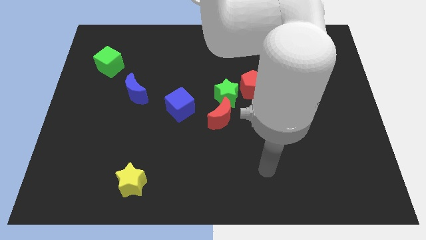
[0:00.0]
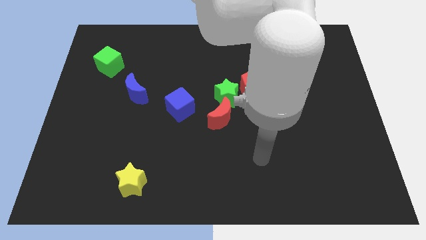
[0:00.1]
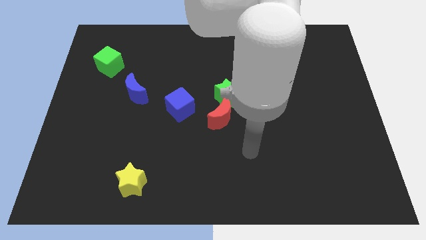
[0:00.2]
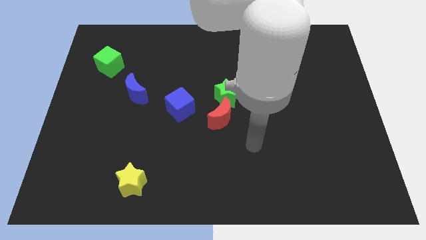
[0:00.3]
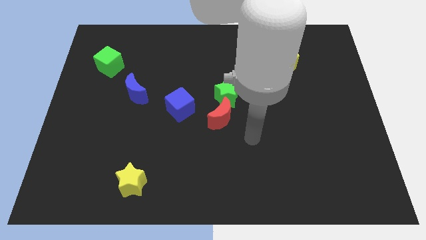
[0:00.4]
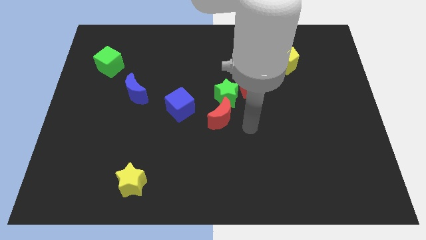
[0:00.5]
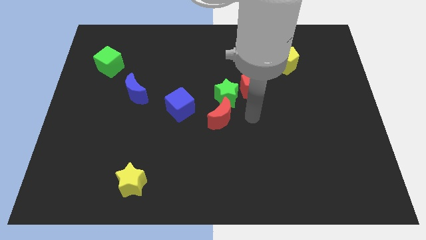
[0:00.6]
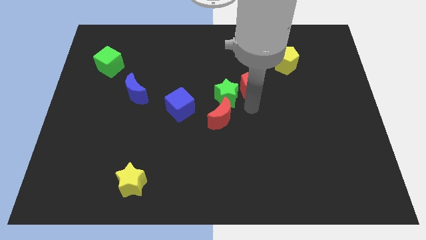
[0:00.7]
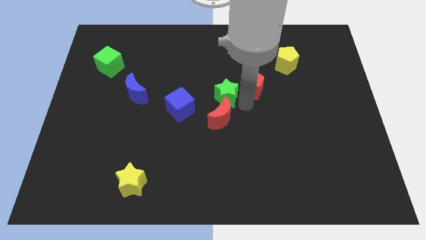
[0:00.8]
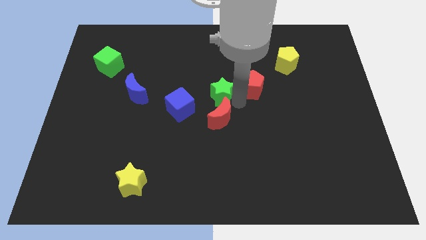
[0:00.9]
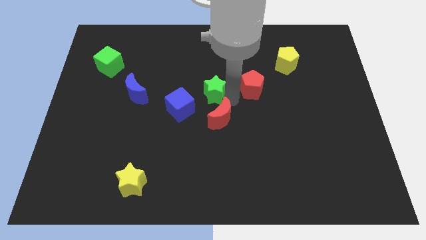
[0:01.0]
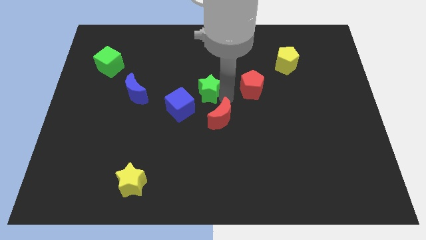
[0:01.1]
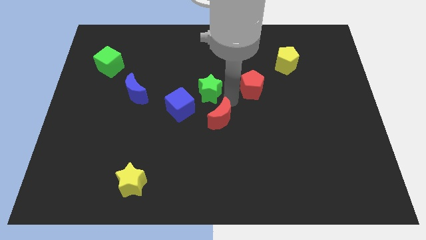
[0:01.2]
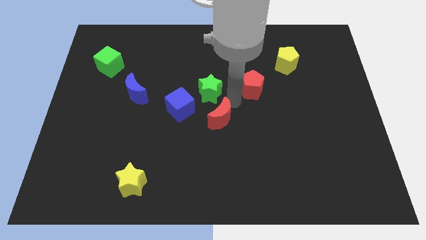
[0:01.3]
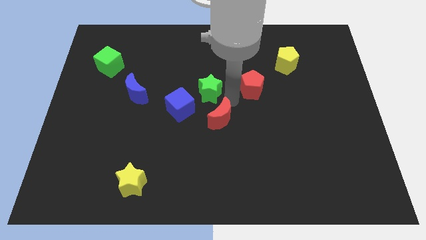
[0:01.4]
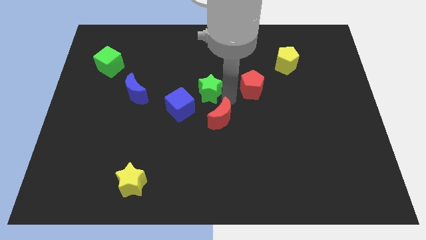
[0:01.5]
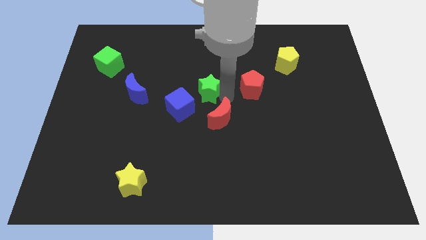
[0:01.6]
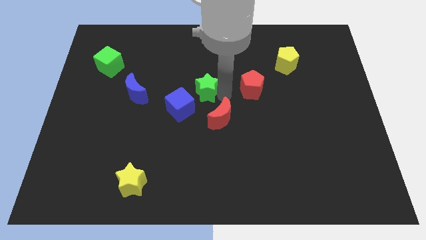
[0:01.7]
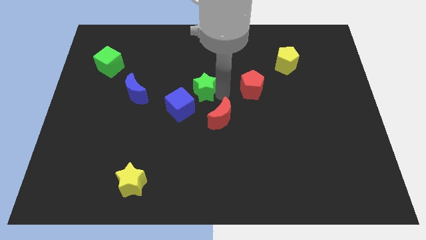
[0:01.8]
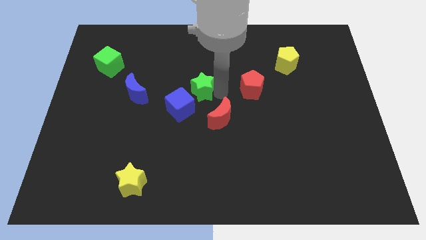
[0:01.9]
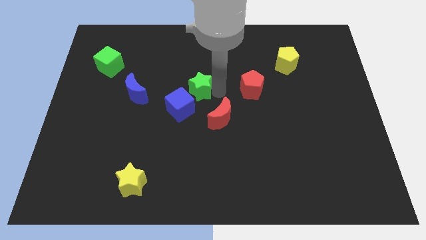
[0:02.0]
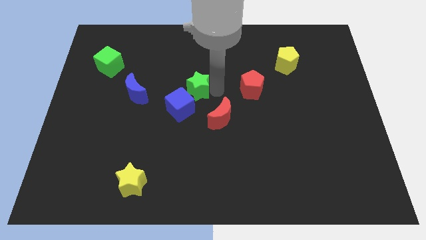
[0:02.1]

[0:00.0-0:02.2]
move the green star away from the red moon and red pentagon

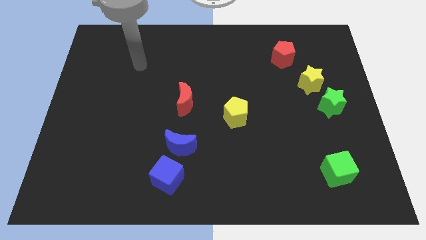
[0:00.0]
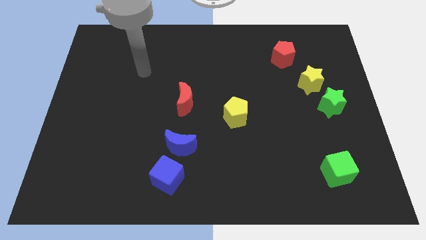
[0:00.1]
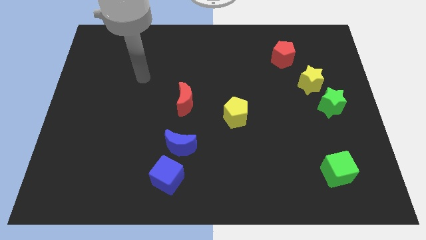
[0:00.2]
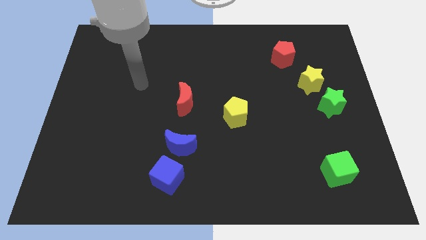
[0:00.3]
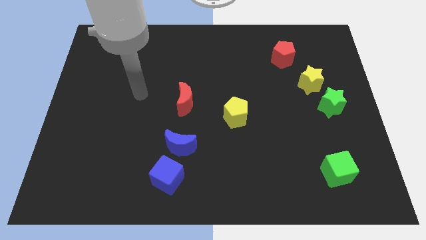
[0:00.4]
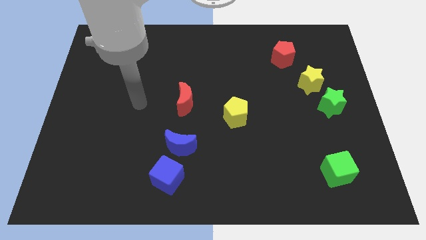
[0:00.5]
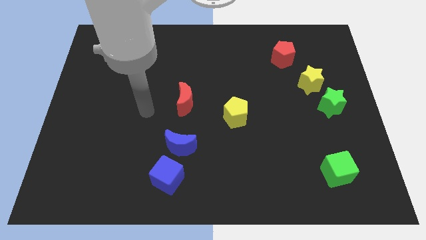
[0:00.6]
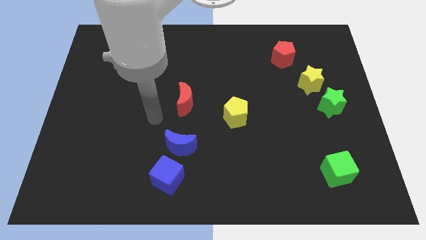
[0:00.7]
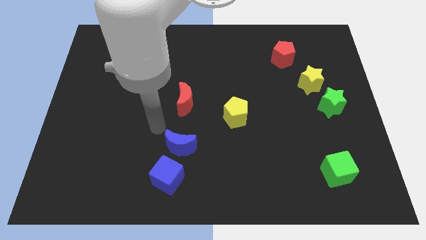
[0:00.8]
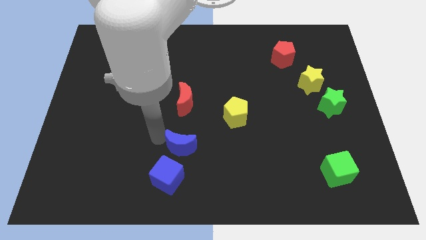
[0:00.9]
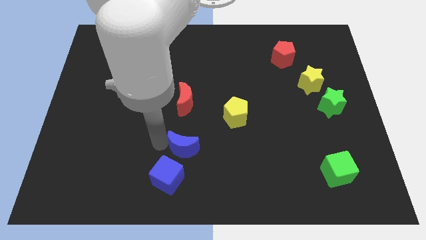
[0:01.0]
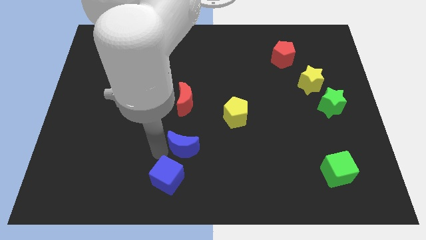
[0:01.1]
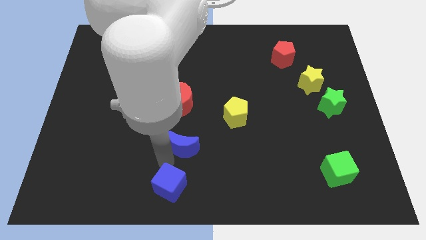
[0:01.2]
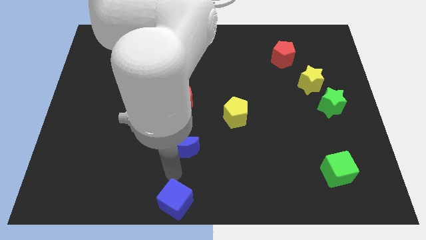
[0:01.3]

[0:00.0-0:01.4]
move the blue moon away from the blue cube

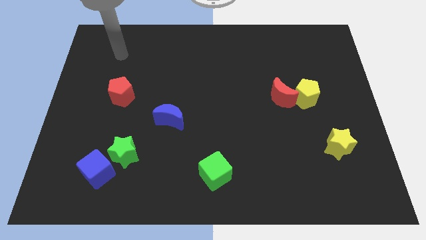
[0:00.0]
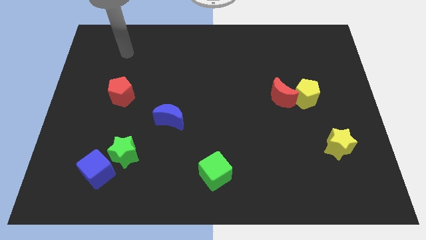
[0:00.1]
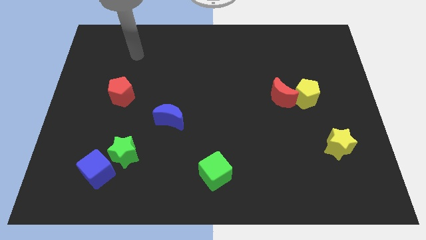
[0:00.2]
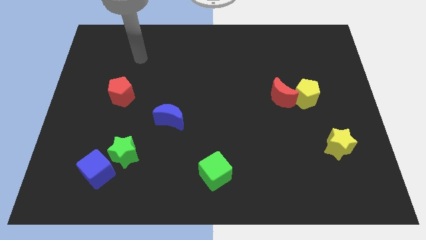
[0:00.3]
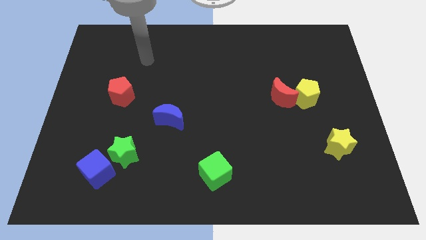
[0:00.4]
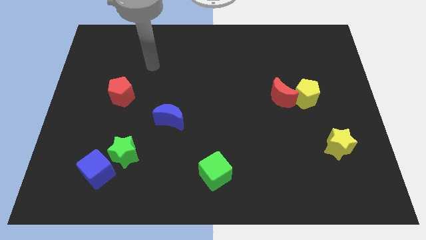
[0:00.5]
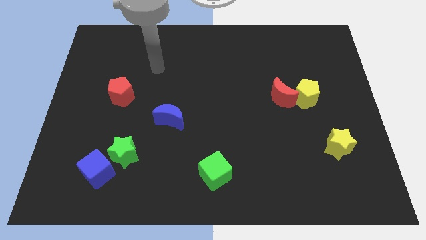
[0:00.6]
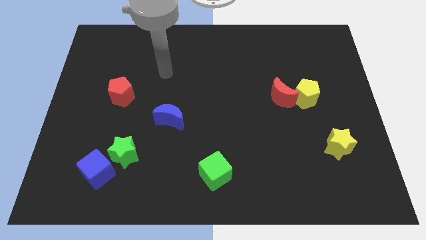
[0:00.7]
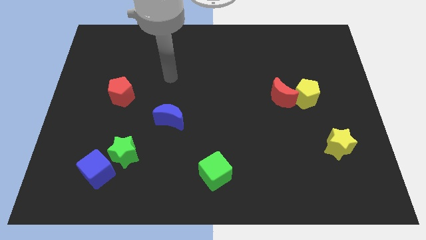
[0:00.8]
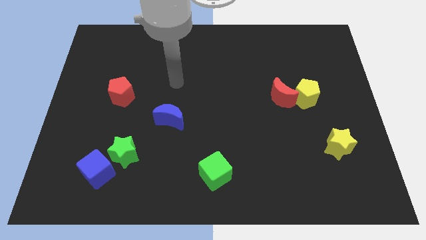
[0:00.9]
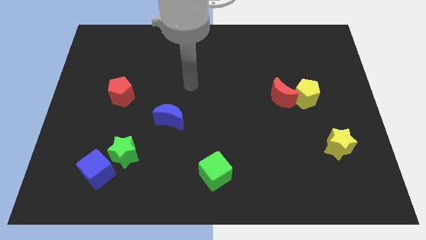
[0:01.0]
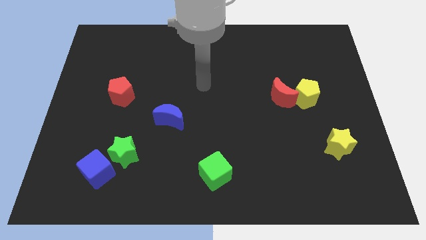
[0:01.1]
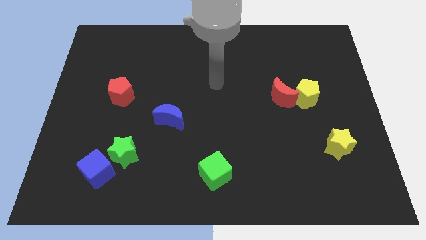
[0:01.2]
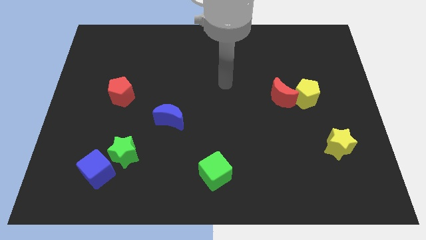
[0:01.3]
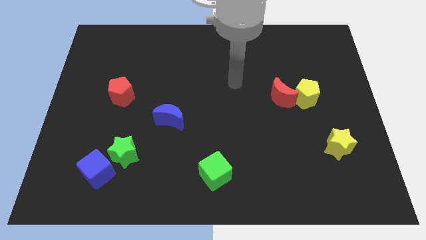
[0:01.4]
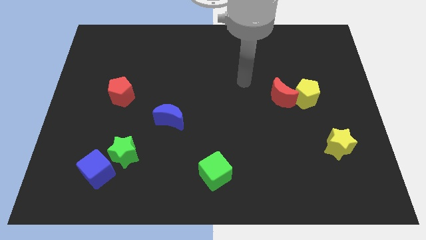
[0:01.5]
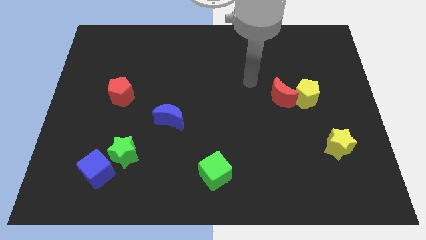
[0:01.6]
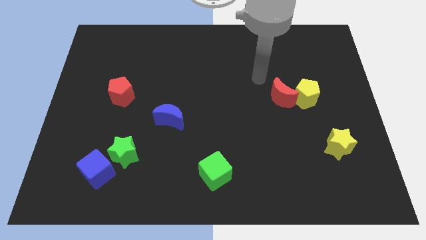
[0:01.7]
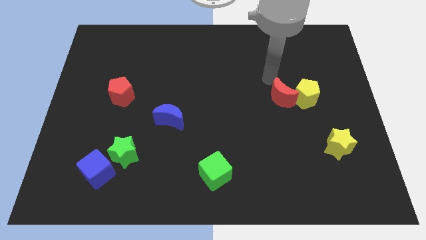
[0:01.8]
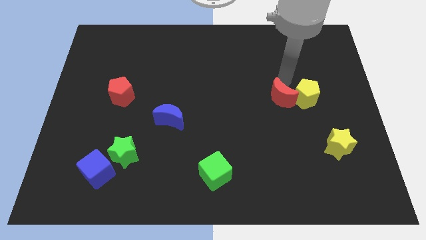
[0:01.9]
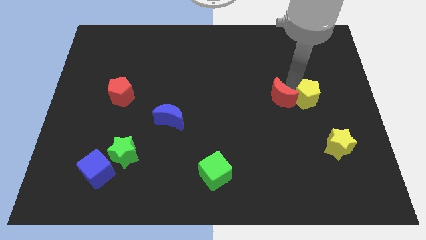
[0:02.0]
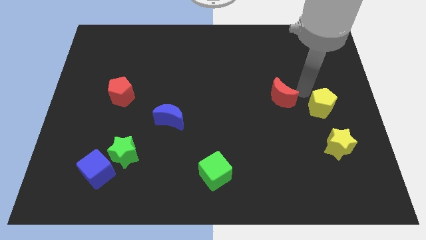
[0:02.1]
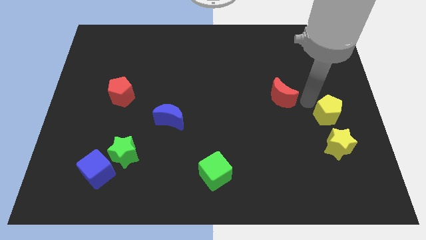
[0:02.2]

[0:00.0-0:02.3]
pull the red moon apart from the yellow pentagon

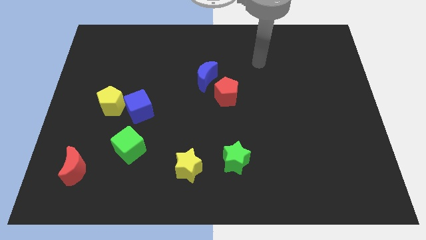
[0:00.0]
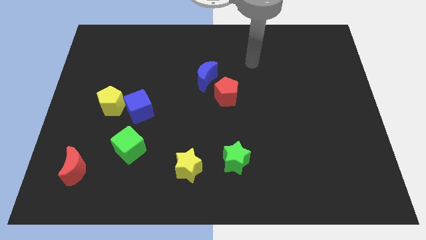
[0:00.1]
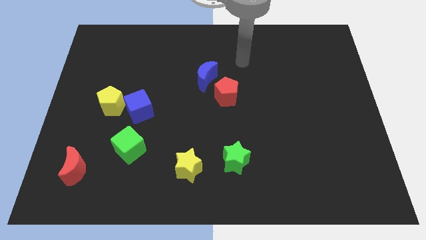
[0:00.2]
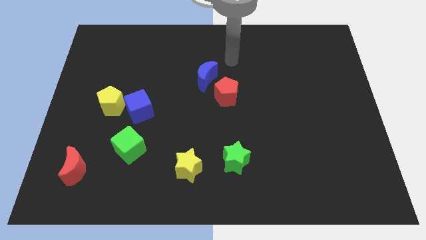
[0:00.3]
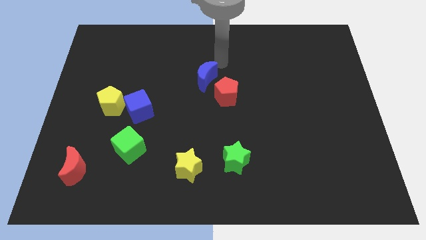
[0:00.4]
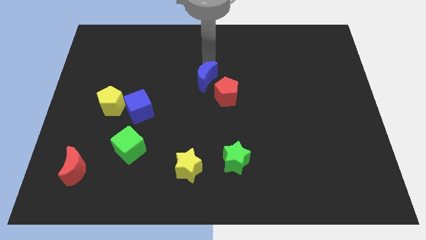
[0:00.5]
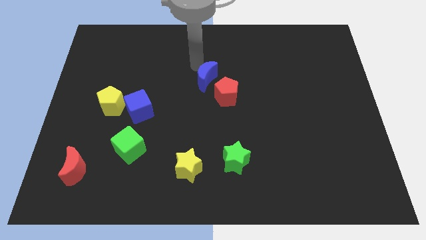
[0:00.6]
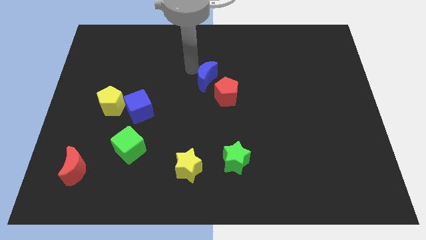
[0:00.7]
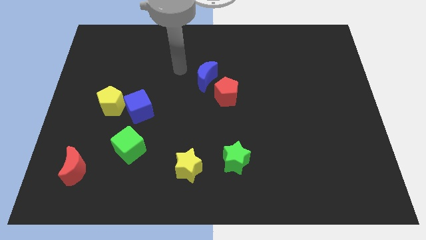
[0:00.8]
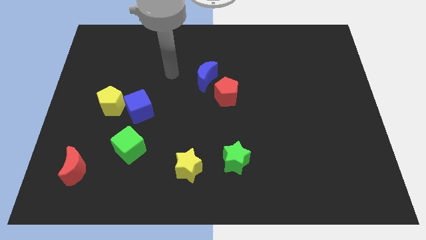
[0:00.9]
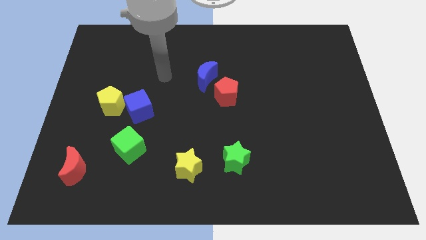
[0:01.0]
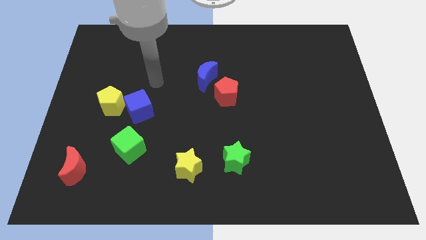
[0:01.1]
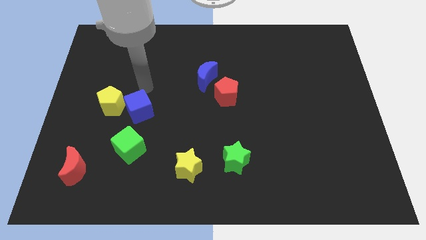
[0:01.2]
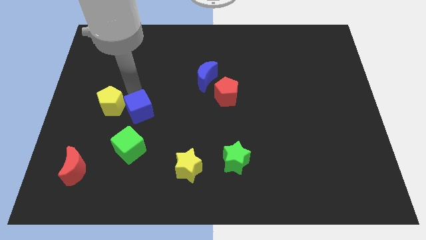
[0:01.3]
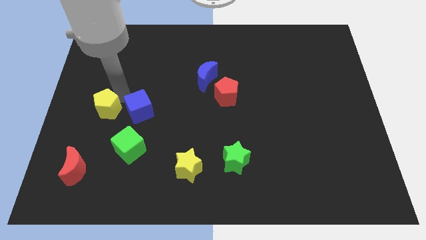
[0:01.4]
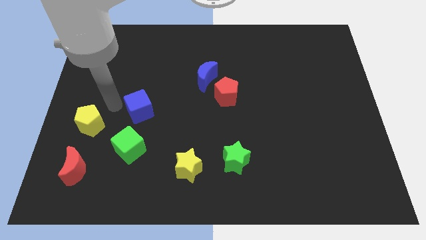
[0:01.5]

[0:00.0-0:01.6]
pull the blue cube apart from the yellow pentagon

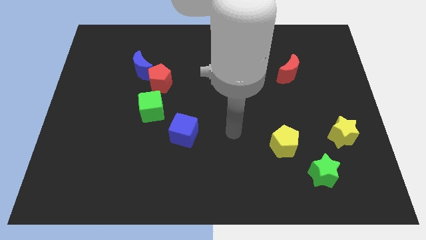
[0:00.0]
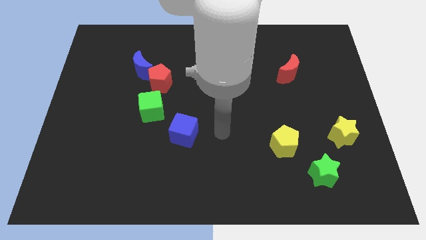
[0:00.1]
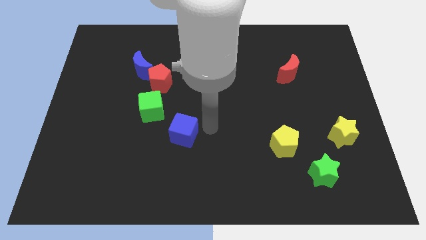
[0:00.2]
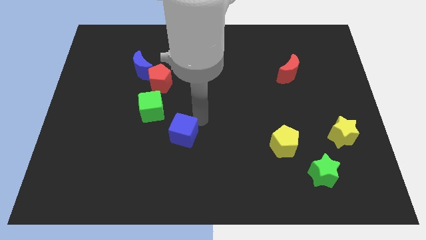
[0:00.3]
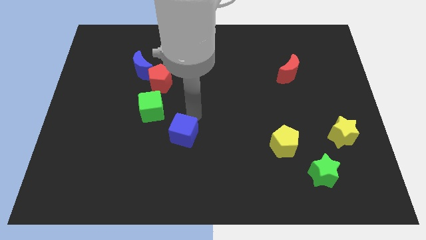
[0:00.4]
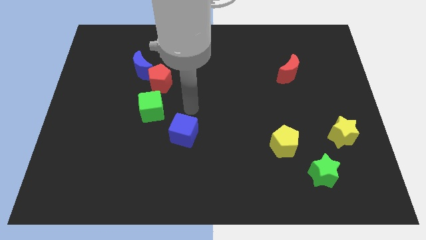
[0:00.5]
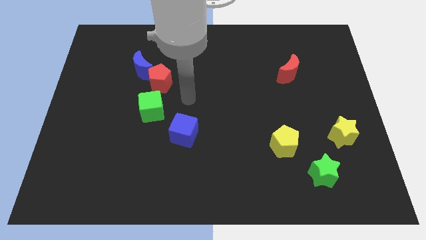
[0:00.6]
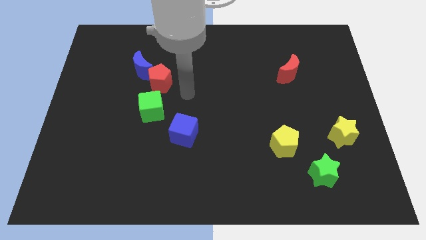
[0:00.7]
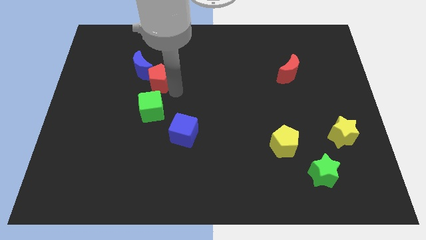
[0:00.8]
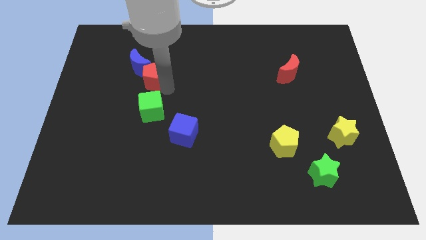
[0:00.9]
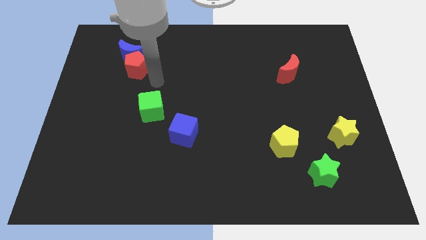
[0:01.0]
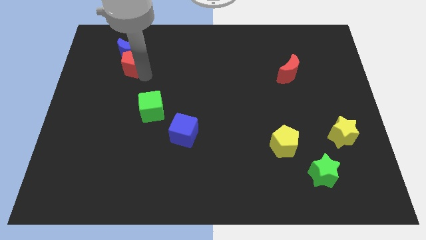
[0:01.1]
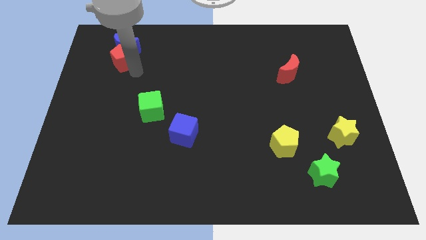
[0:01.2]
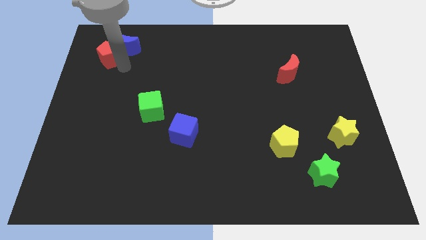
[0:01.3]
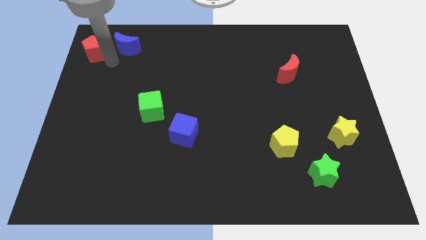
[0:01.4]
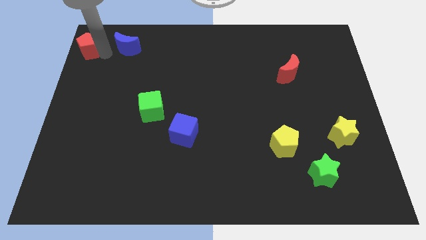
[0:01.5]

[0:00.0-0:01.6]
pull the blue moon apart from the red pentagon

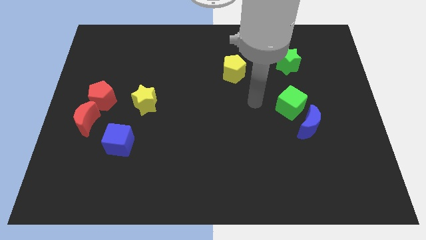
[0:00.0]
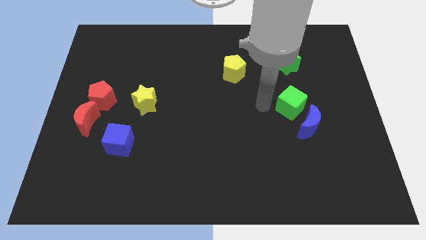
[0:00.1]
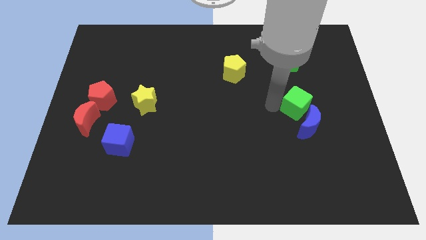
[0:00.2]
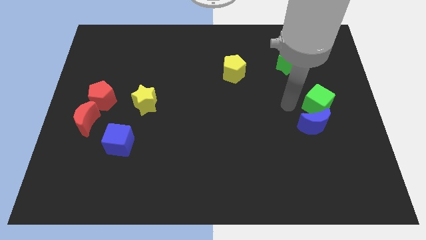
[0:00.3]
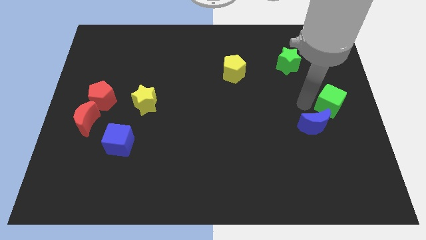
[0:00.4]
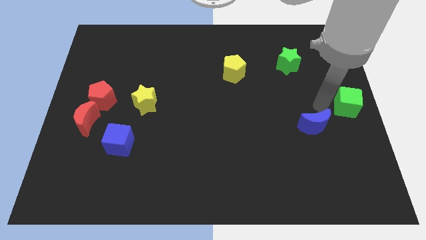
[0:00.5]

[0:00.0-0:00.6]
separate the blue moon from the green cube
